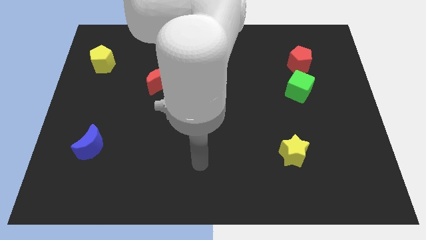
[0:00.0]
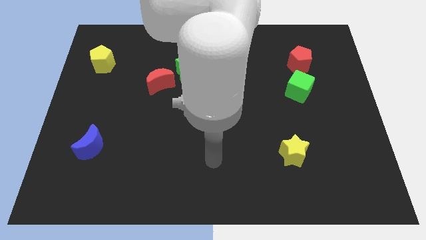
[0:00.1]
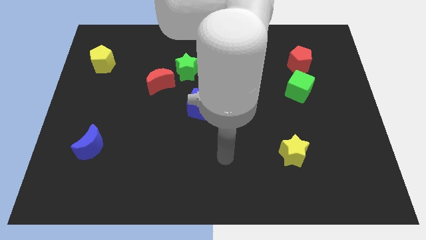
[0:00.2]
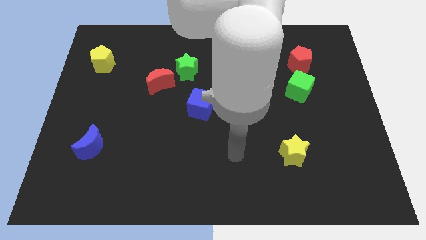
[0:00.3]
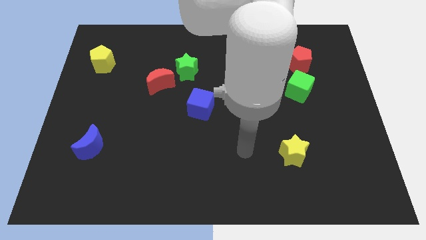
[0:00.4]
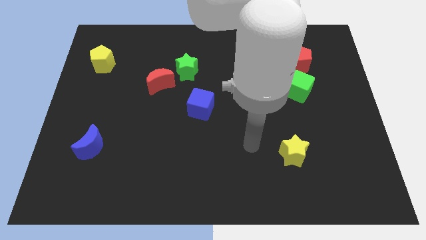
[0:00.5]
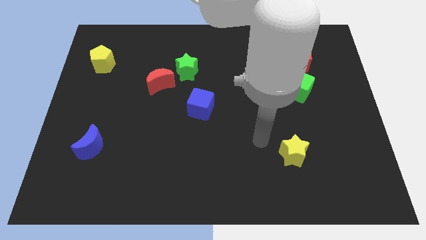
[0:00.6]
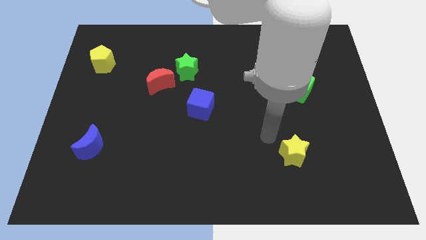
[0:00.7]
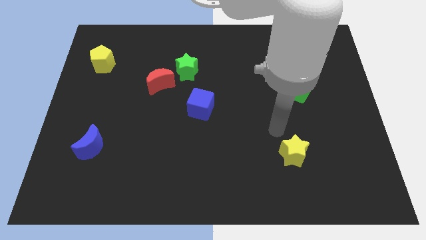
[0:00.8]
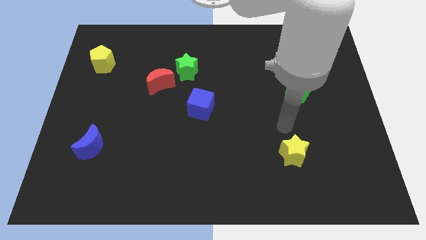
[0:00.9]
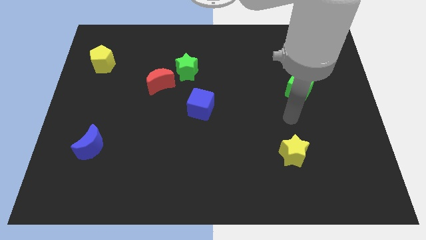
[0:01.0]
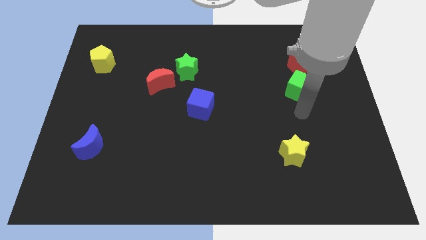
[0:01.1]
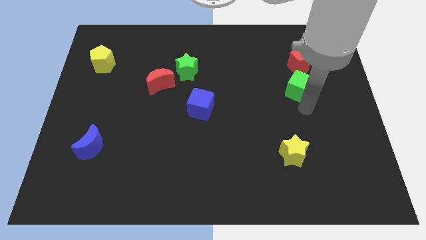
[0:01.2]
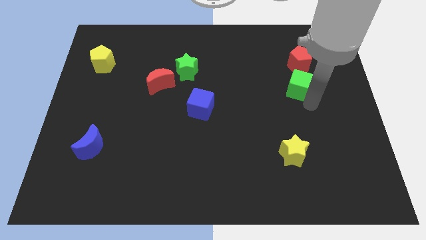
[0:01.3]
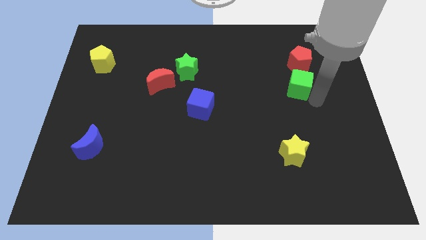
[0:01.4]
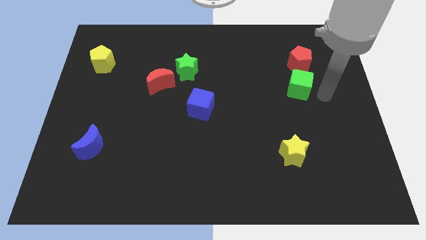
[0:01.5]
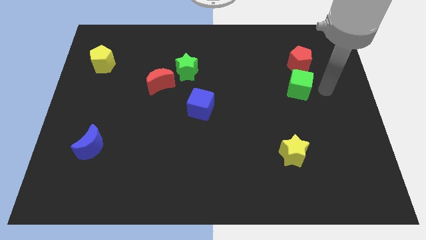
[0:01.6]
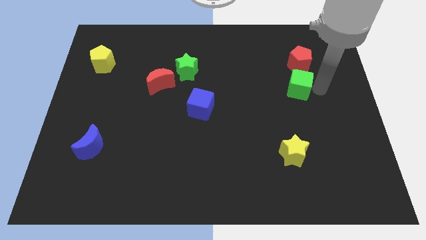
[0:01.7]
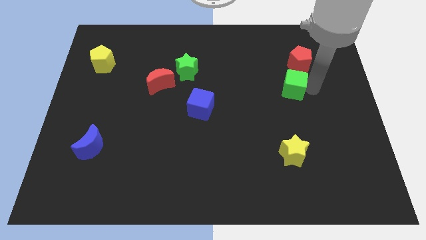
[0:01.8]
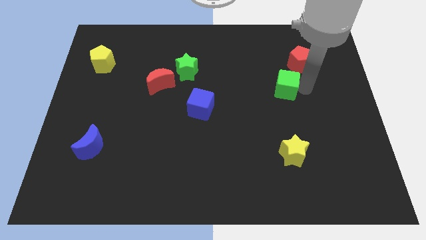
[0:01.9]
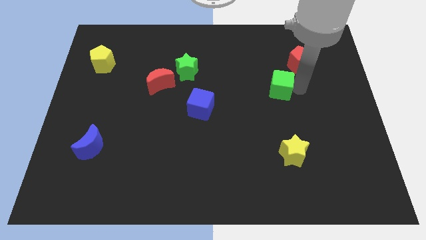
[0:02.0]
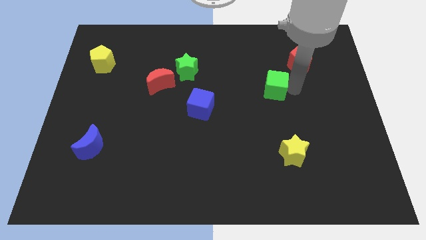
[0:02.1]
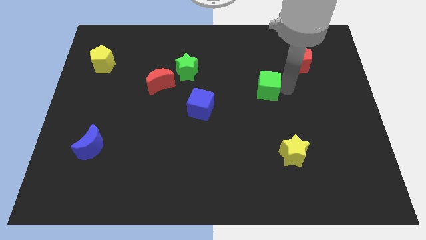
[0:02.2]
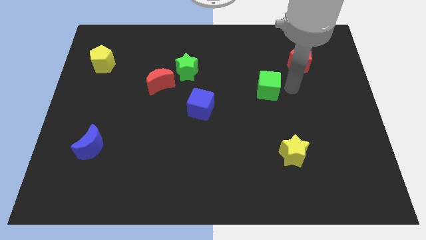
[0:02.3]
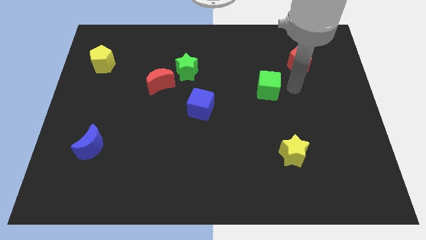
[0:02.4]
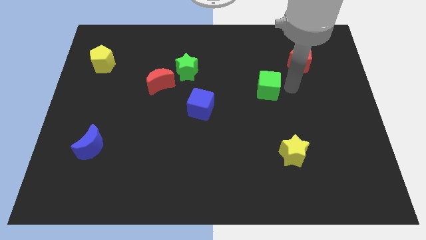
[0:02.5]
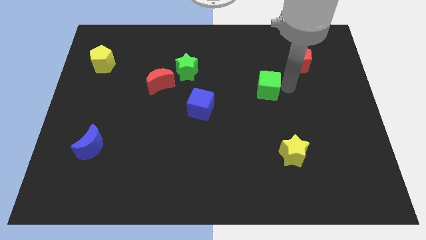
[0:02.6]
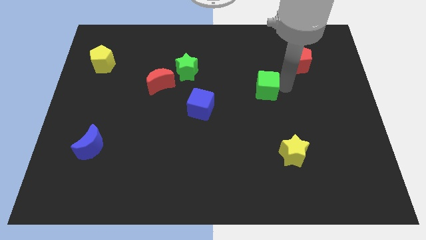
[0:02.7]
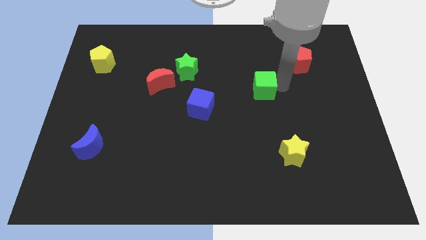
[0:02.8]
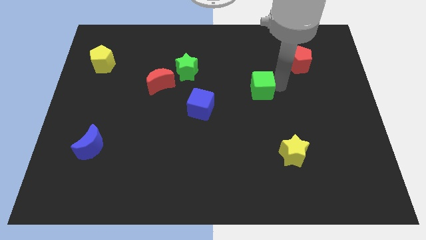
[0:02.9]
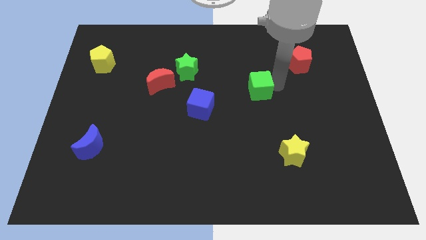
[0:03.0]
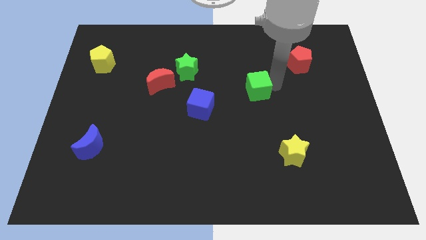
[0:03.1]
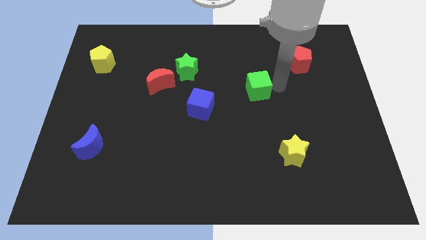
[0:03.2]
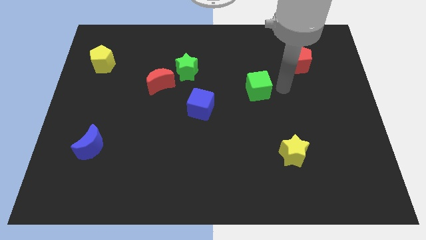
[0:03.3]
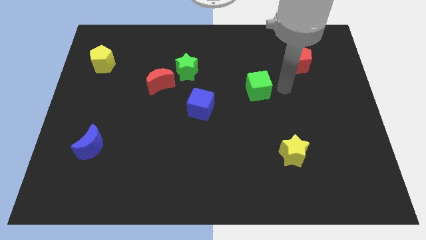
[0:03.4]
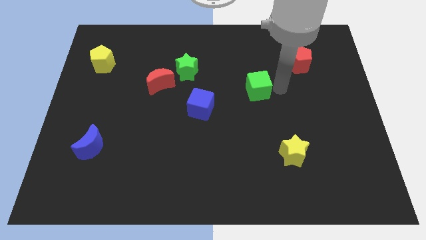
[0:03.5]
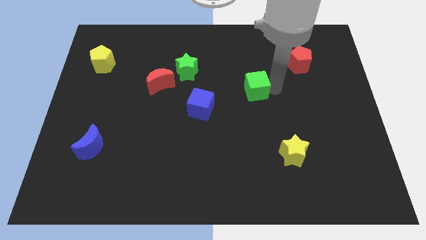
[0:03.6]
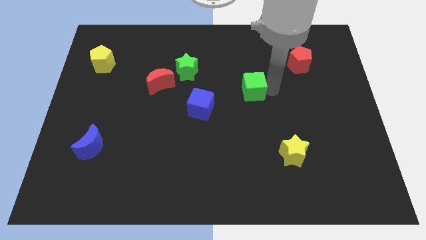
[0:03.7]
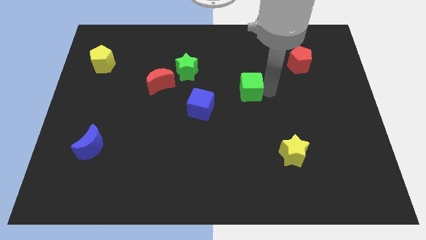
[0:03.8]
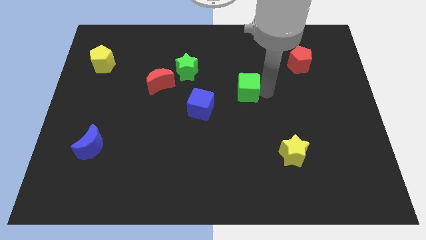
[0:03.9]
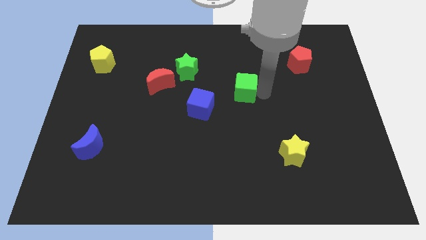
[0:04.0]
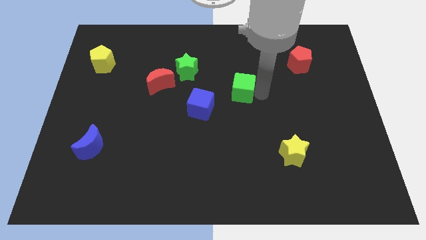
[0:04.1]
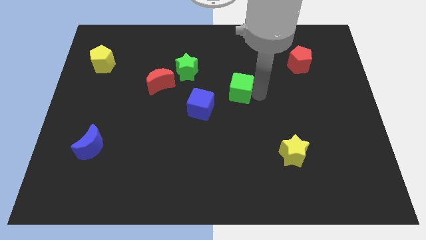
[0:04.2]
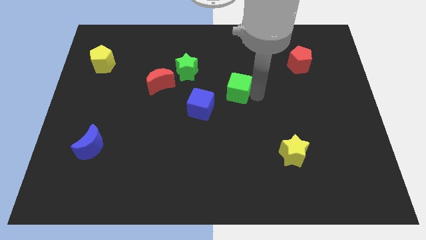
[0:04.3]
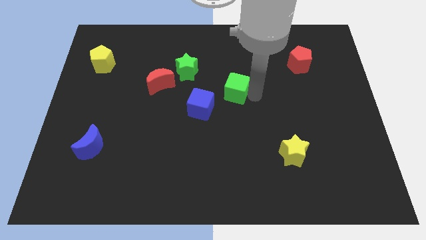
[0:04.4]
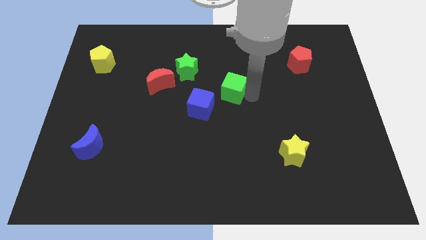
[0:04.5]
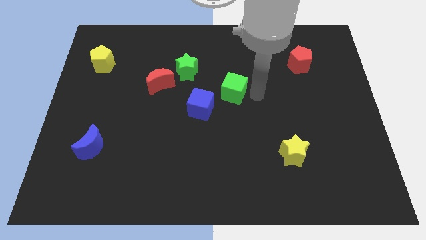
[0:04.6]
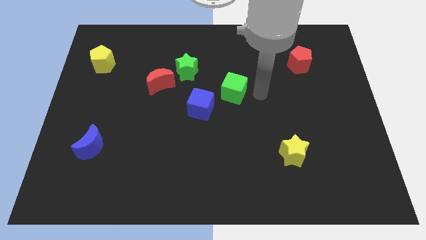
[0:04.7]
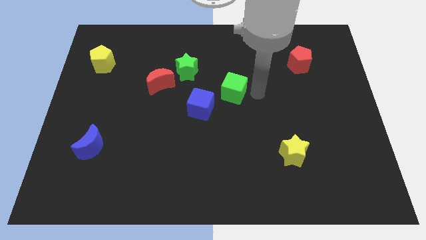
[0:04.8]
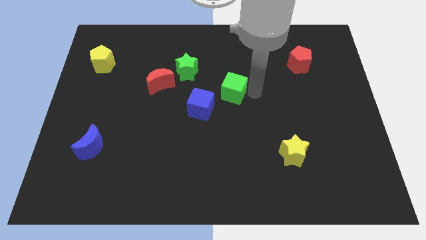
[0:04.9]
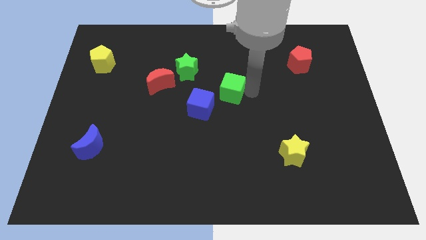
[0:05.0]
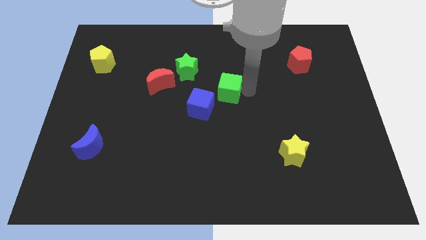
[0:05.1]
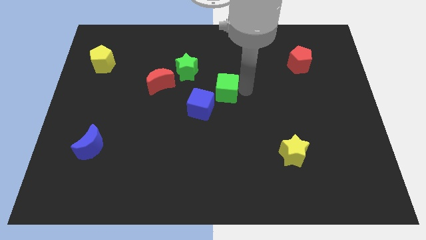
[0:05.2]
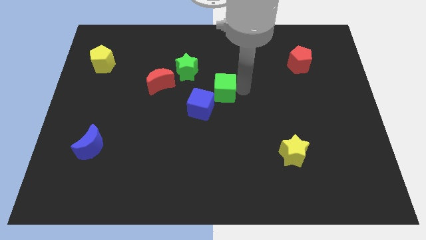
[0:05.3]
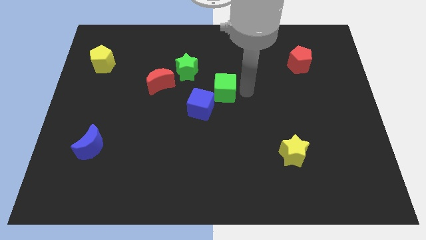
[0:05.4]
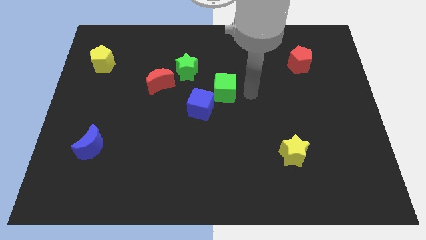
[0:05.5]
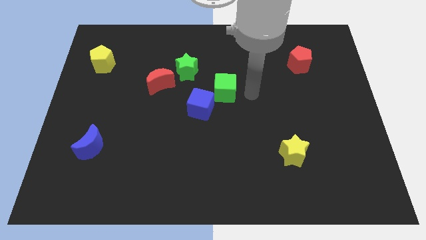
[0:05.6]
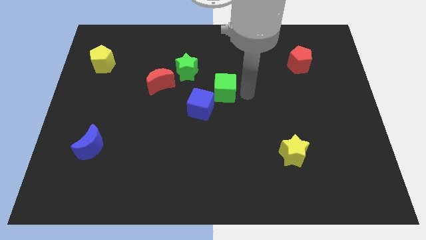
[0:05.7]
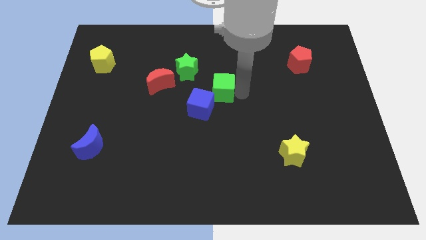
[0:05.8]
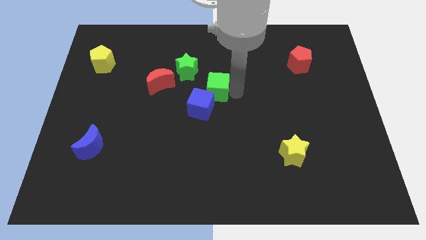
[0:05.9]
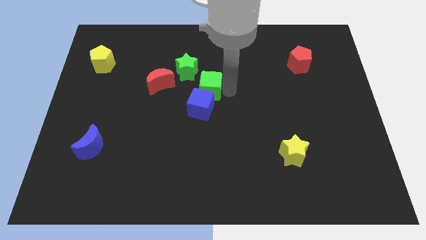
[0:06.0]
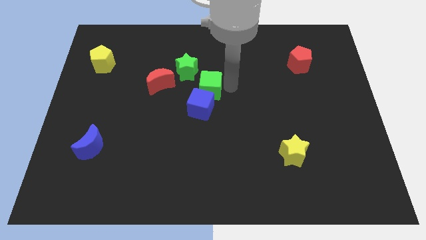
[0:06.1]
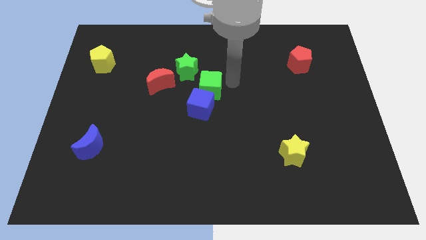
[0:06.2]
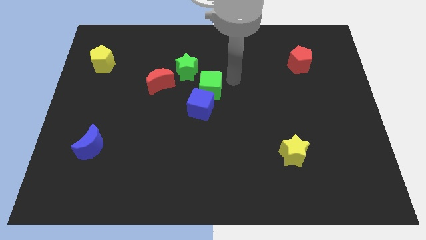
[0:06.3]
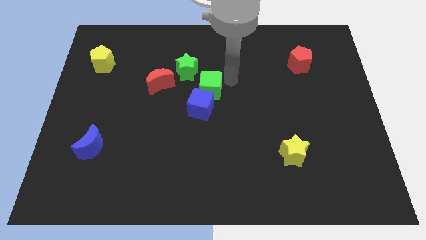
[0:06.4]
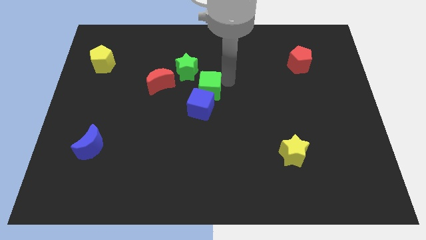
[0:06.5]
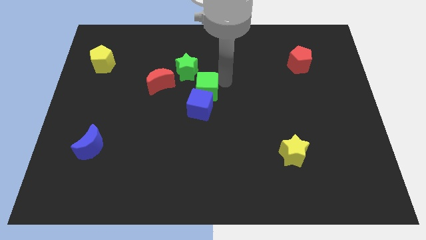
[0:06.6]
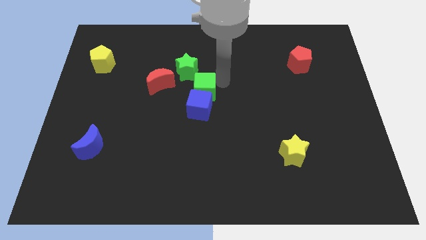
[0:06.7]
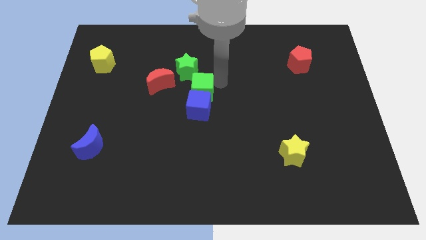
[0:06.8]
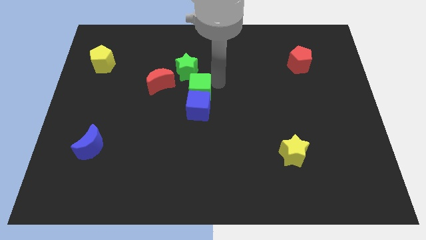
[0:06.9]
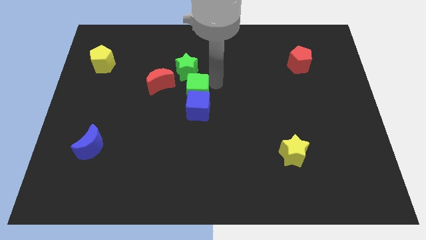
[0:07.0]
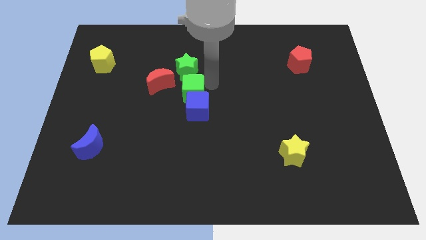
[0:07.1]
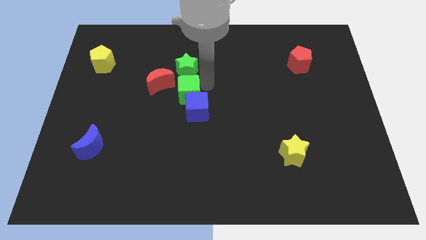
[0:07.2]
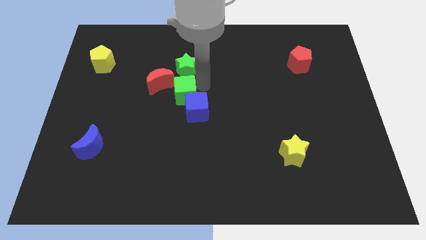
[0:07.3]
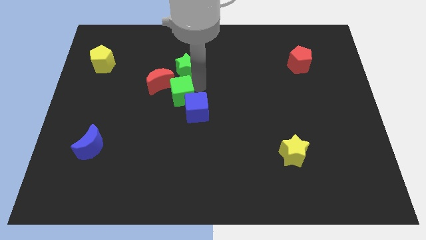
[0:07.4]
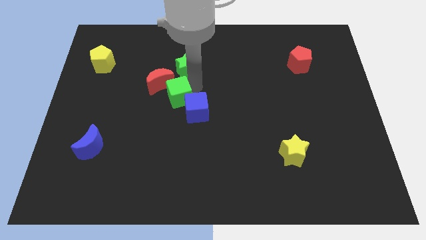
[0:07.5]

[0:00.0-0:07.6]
move the green cube to the left of the blue cube

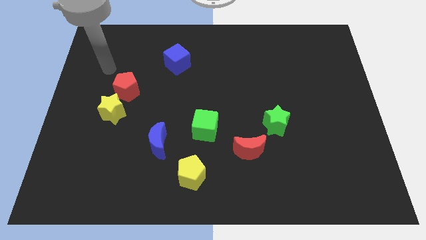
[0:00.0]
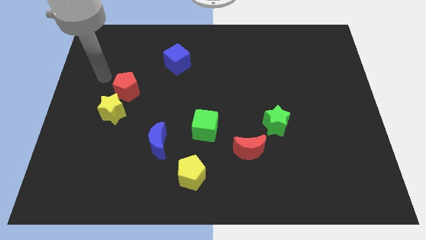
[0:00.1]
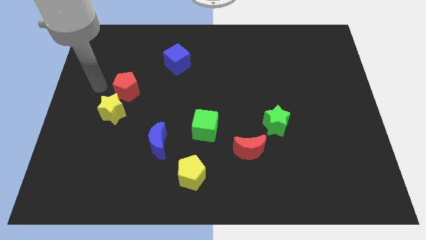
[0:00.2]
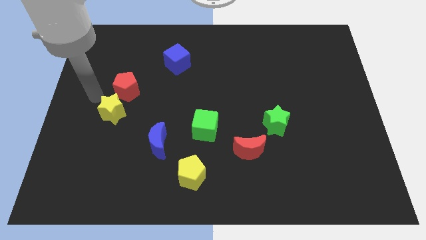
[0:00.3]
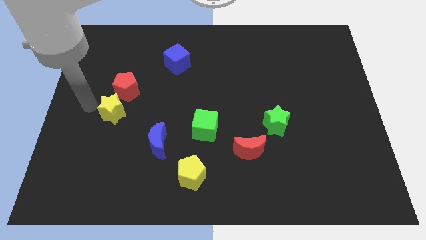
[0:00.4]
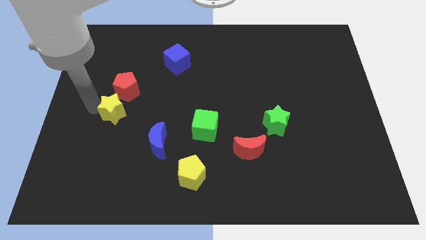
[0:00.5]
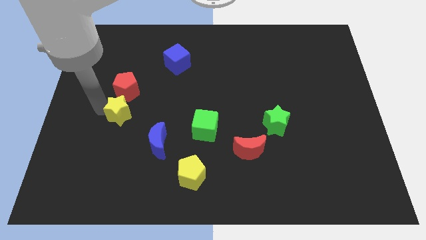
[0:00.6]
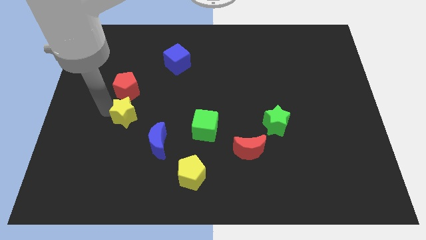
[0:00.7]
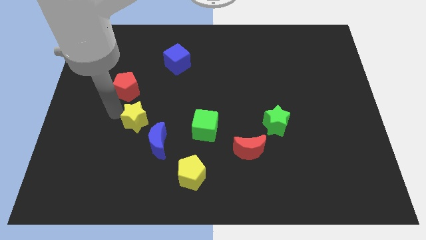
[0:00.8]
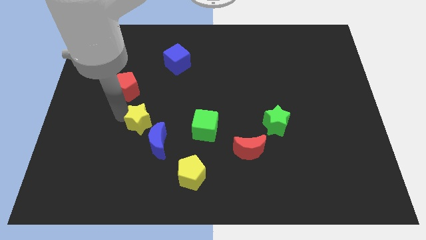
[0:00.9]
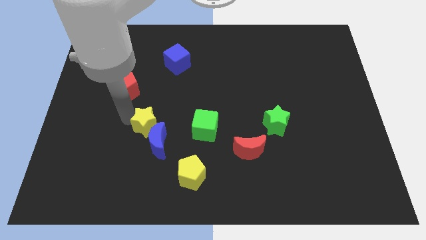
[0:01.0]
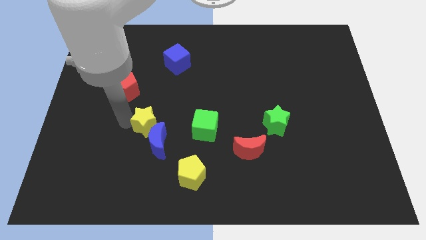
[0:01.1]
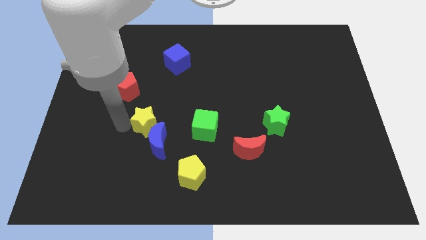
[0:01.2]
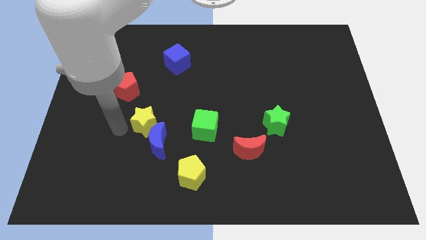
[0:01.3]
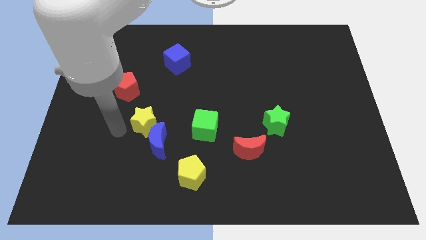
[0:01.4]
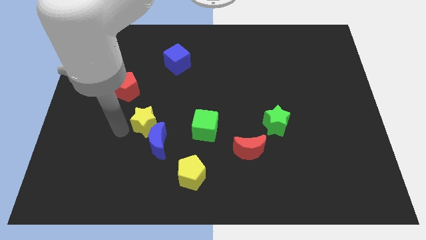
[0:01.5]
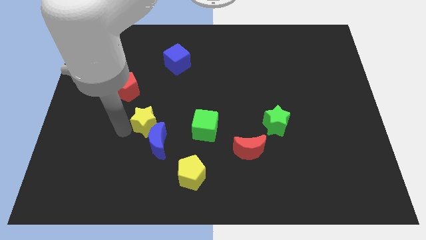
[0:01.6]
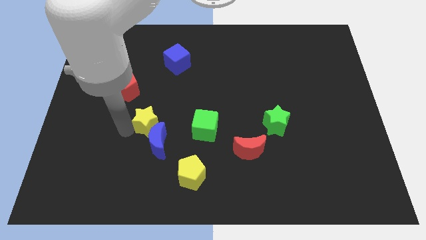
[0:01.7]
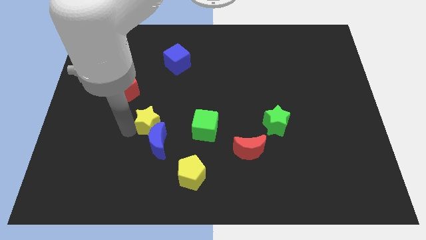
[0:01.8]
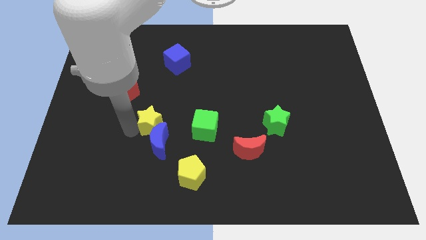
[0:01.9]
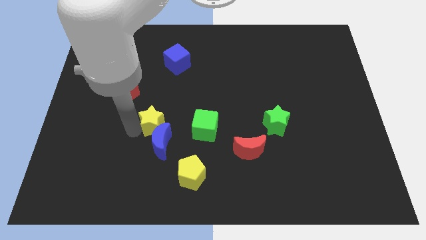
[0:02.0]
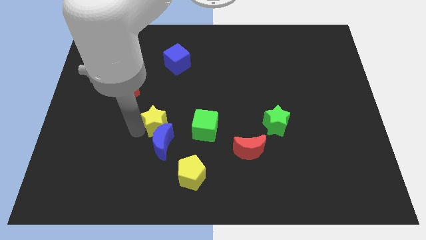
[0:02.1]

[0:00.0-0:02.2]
put the yellow star diagonally up and to the right of the blue moon
